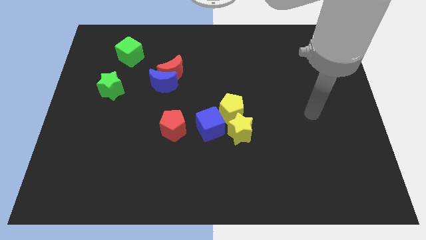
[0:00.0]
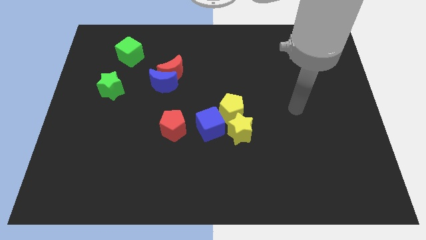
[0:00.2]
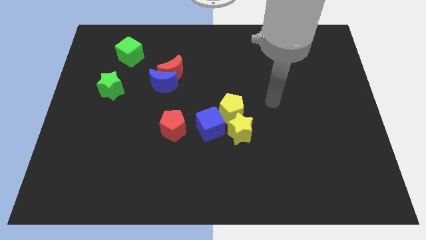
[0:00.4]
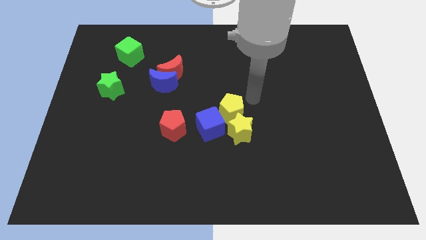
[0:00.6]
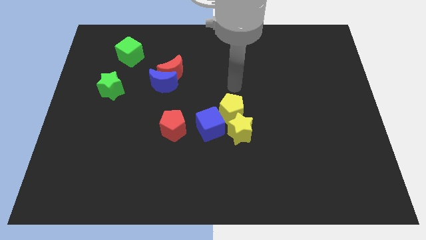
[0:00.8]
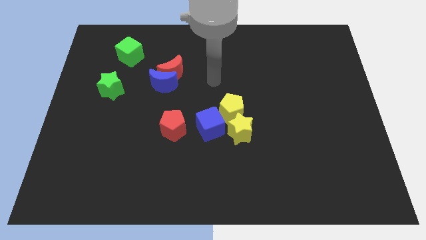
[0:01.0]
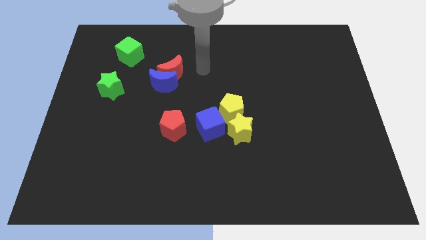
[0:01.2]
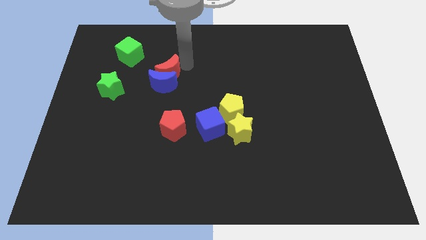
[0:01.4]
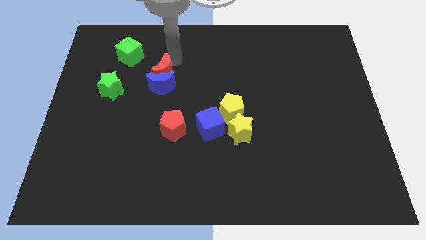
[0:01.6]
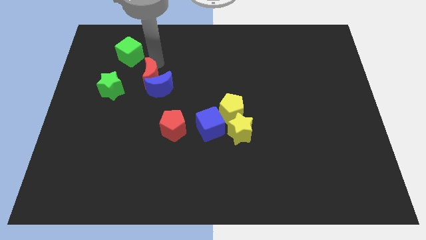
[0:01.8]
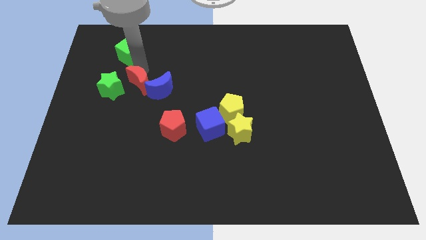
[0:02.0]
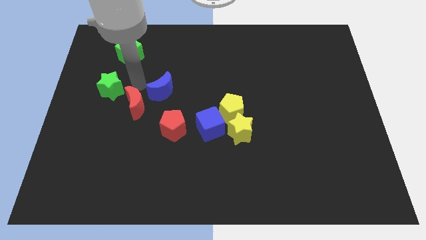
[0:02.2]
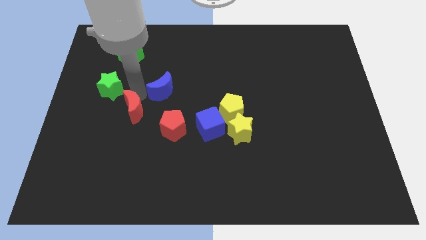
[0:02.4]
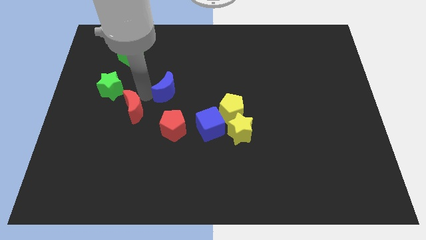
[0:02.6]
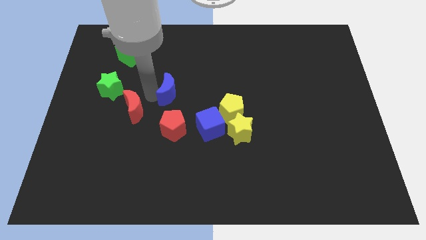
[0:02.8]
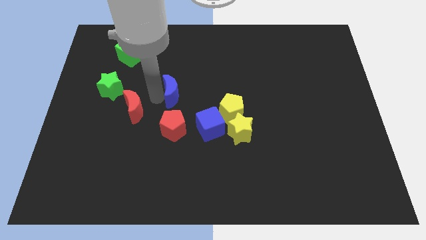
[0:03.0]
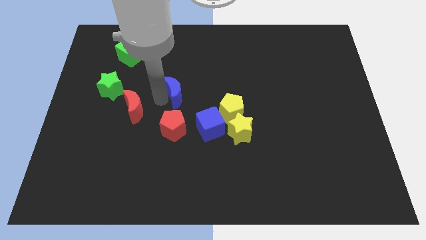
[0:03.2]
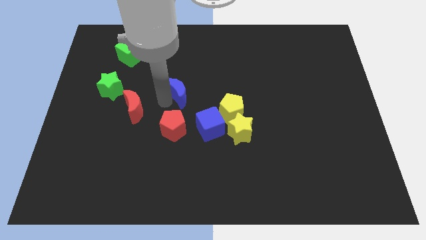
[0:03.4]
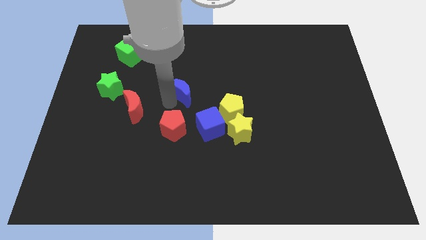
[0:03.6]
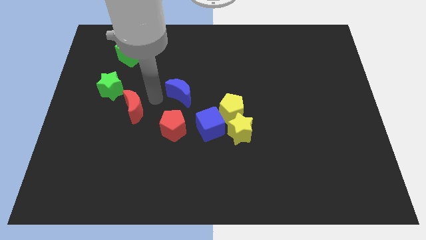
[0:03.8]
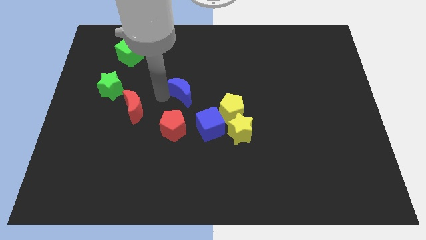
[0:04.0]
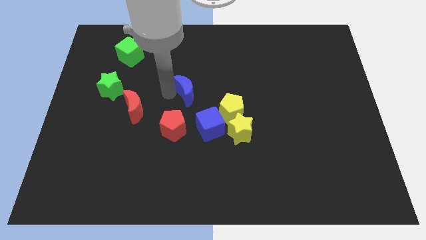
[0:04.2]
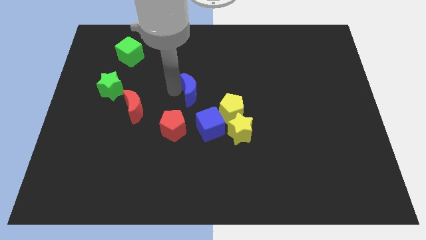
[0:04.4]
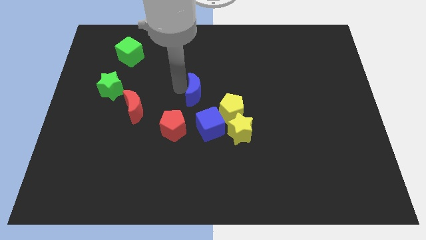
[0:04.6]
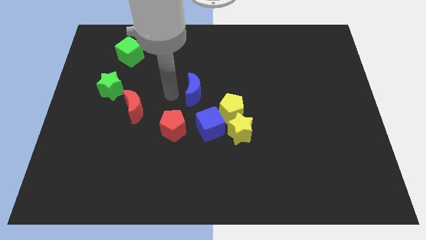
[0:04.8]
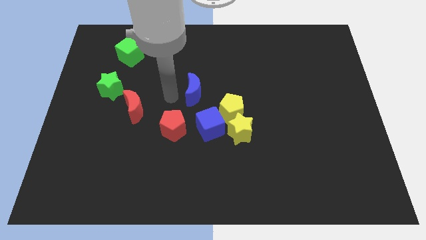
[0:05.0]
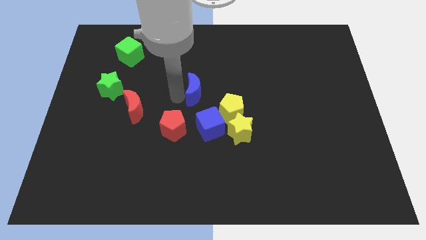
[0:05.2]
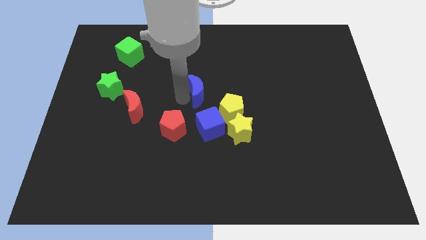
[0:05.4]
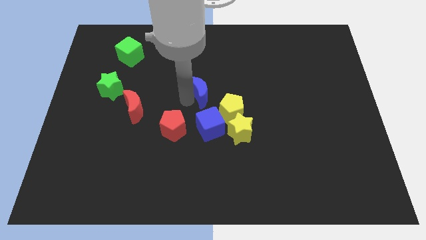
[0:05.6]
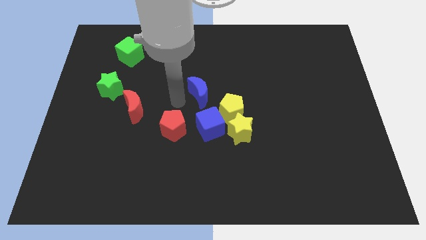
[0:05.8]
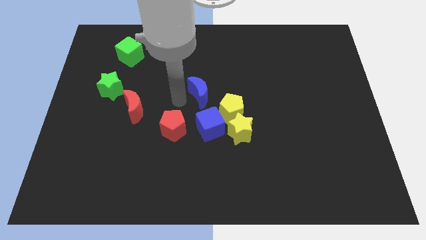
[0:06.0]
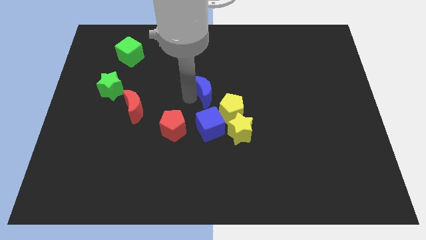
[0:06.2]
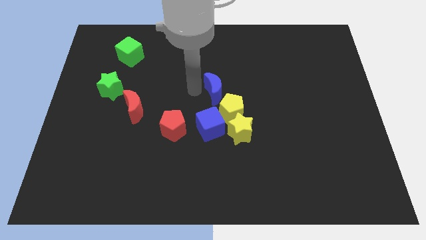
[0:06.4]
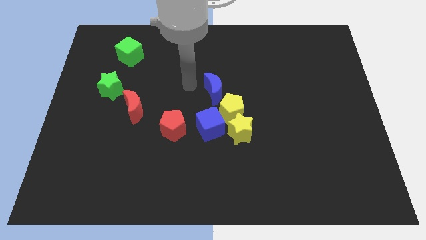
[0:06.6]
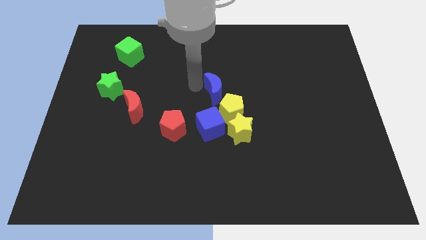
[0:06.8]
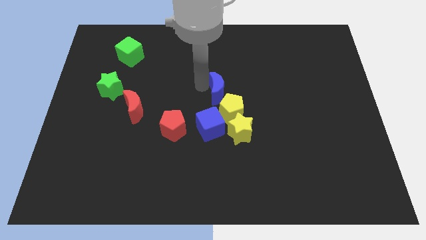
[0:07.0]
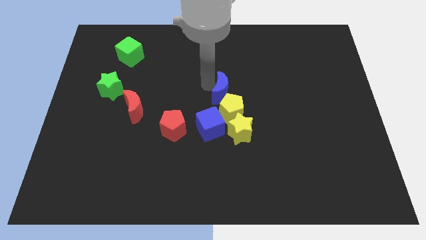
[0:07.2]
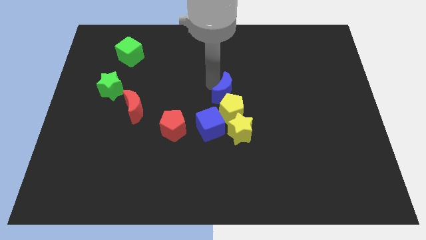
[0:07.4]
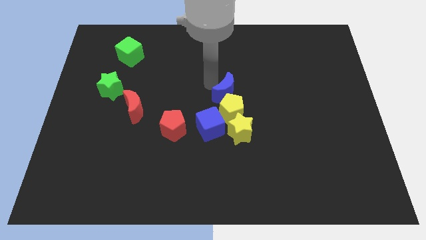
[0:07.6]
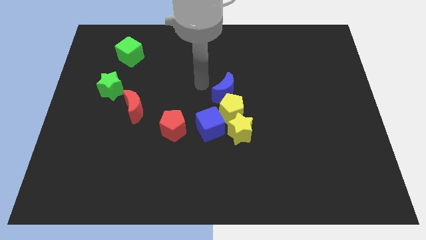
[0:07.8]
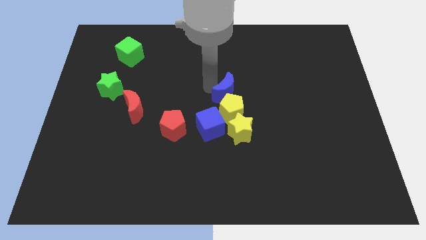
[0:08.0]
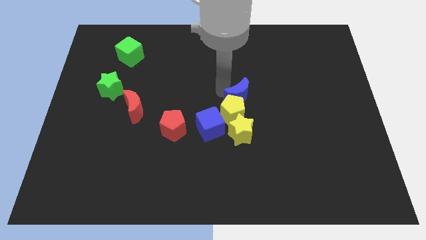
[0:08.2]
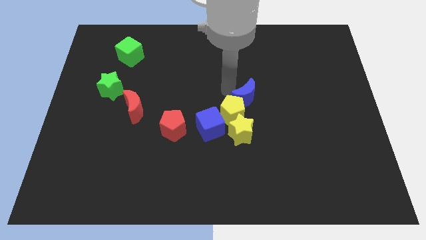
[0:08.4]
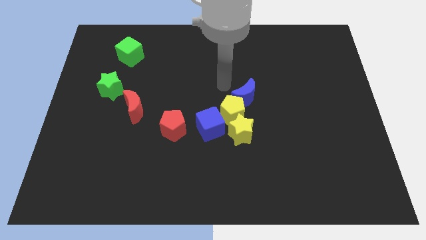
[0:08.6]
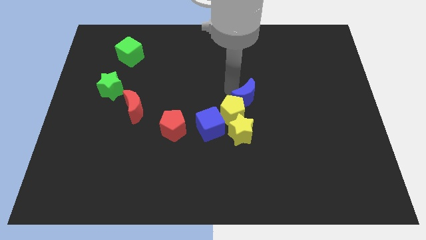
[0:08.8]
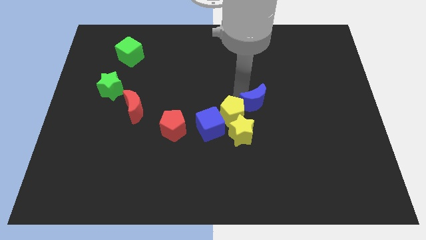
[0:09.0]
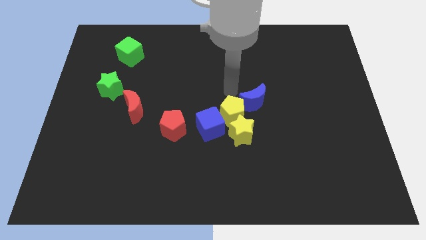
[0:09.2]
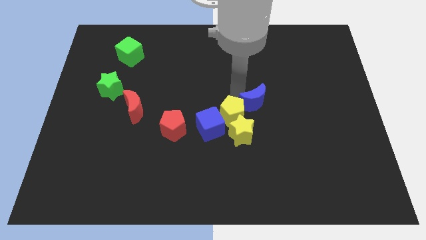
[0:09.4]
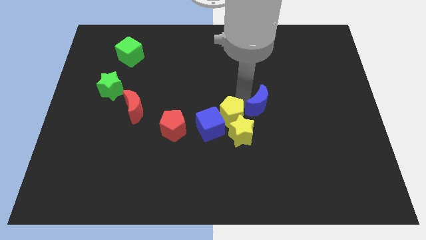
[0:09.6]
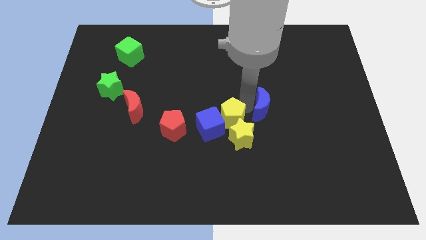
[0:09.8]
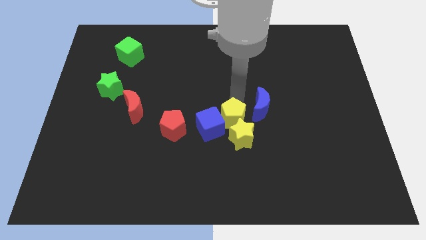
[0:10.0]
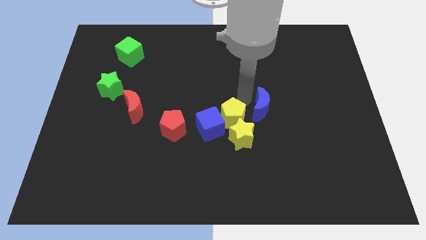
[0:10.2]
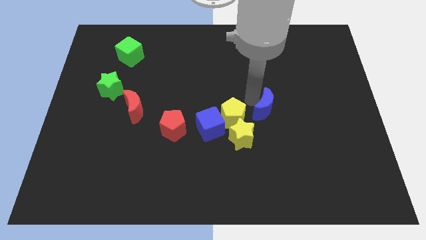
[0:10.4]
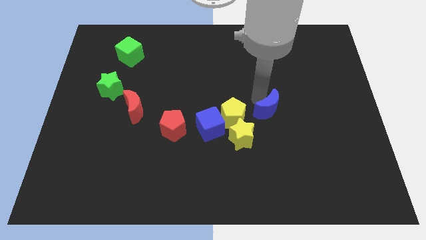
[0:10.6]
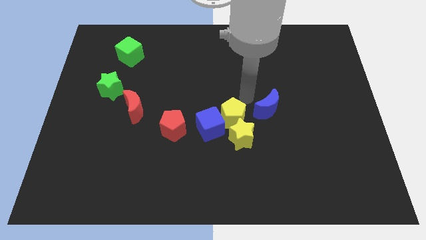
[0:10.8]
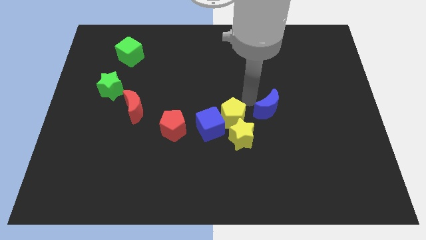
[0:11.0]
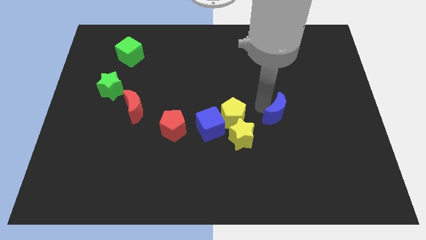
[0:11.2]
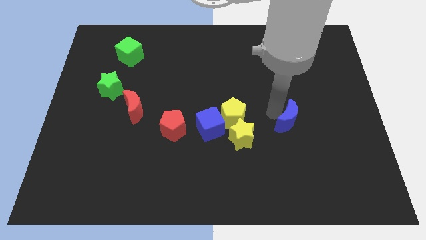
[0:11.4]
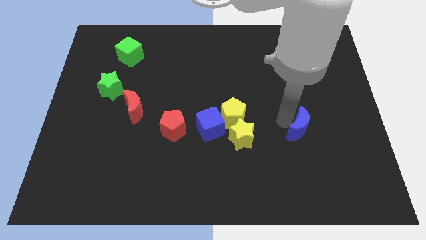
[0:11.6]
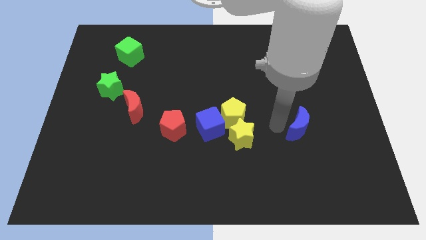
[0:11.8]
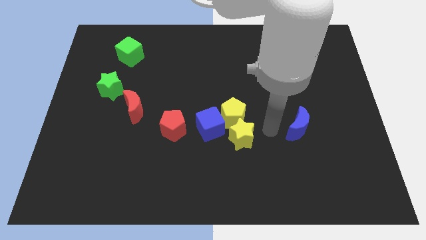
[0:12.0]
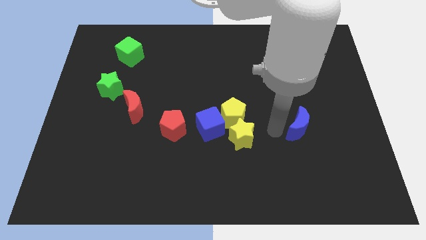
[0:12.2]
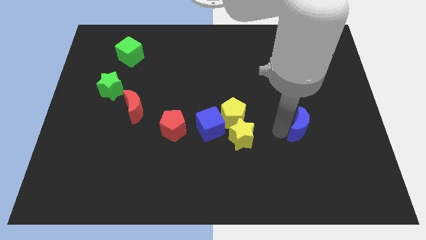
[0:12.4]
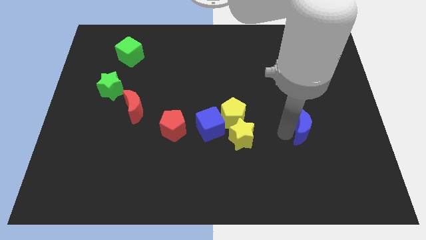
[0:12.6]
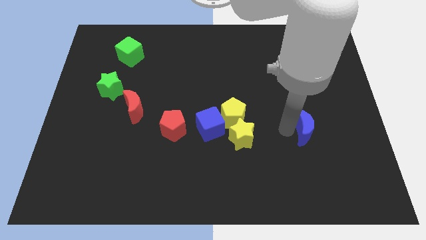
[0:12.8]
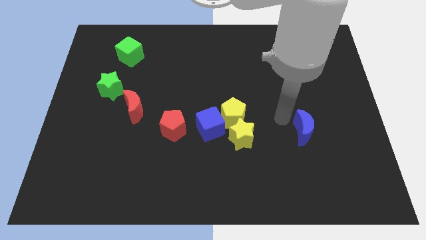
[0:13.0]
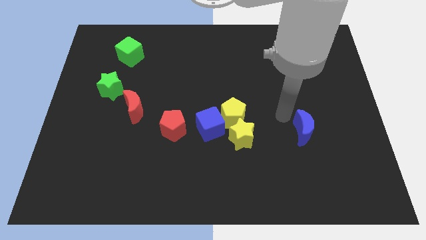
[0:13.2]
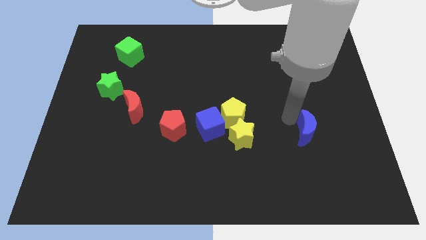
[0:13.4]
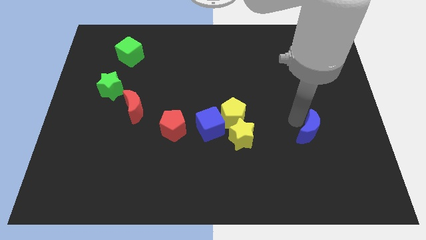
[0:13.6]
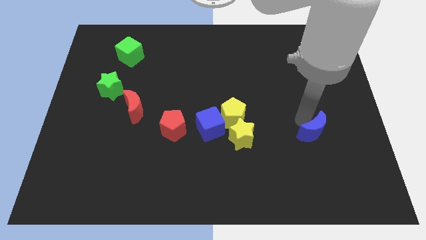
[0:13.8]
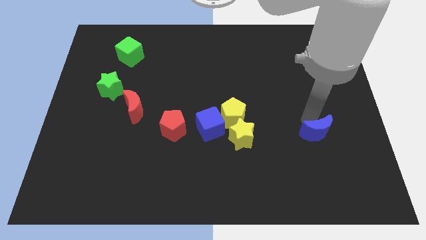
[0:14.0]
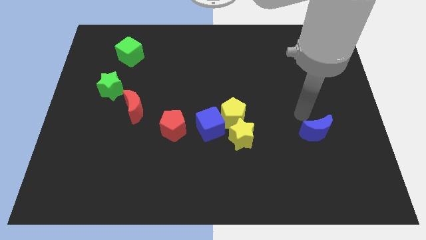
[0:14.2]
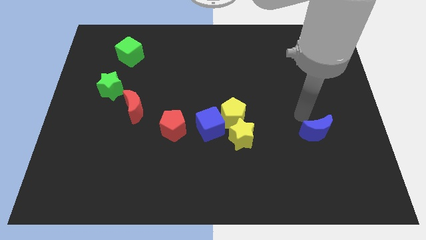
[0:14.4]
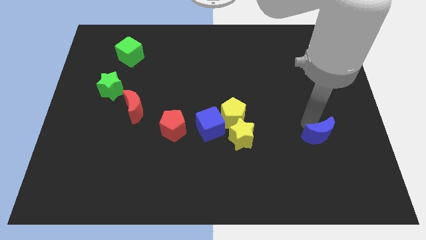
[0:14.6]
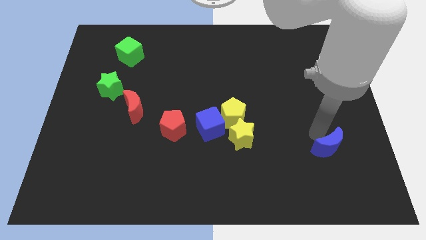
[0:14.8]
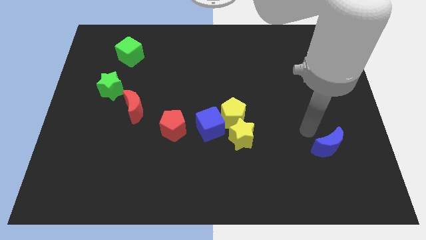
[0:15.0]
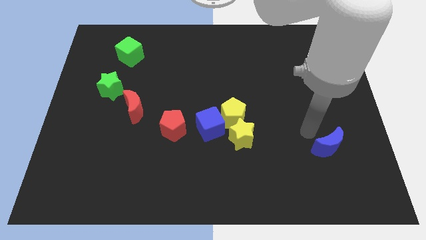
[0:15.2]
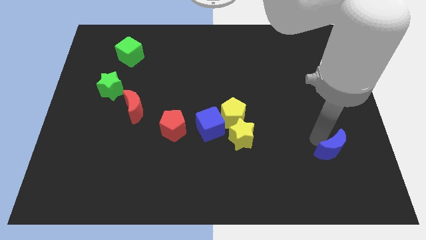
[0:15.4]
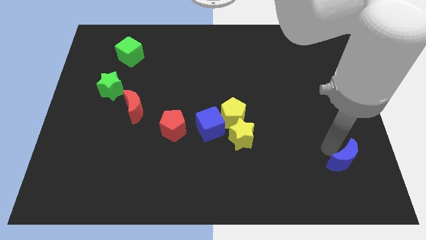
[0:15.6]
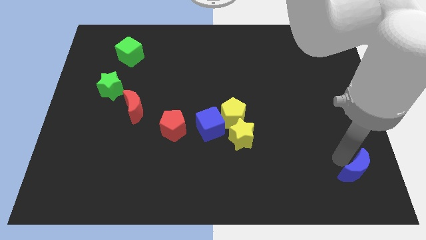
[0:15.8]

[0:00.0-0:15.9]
push the blue moon to the bottom right corner
